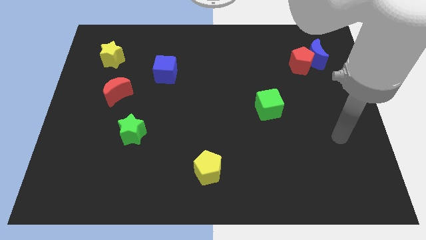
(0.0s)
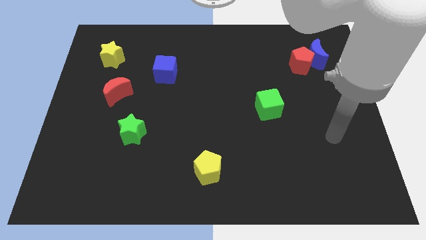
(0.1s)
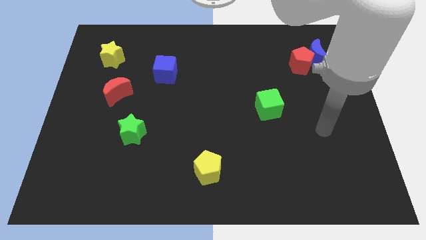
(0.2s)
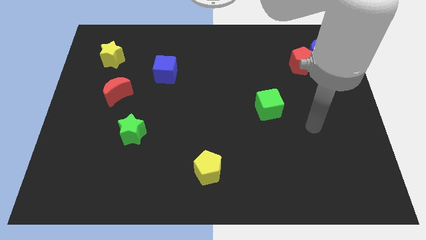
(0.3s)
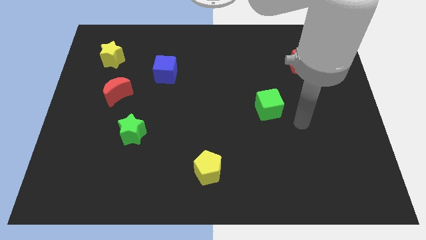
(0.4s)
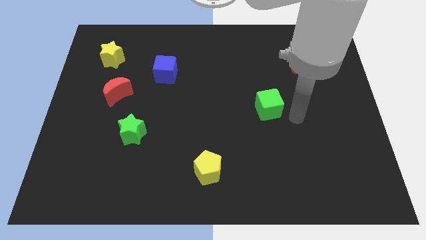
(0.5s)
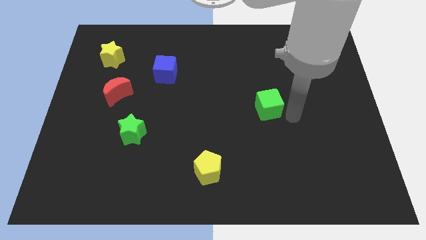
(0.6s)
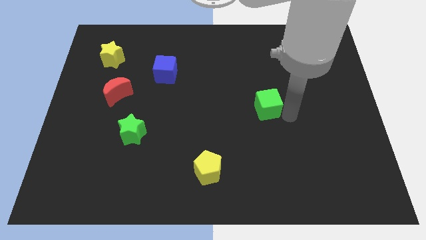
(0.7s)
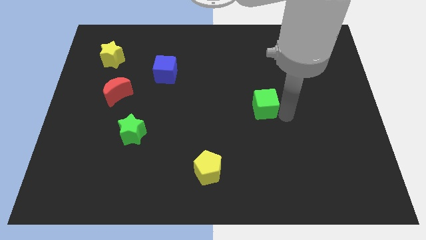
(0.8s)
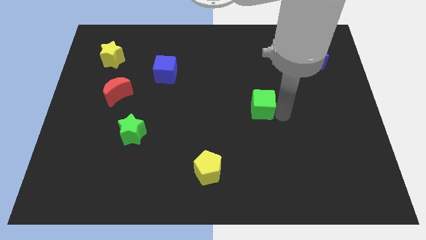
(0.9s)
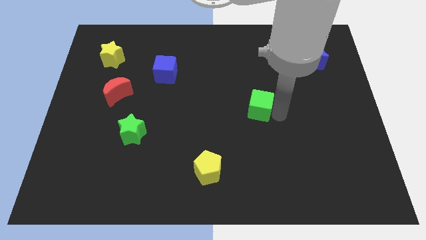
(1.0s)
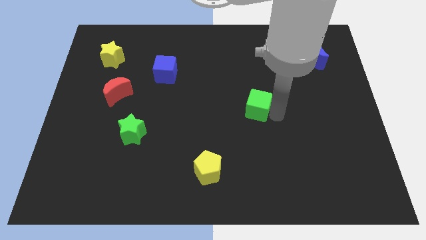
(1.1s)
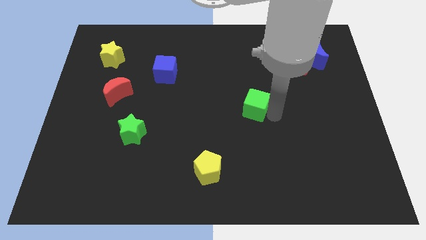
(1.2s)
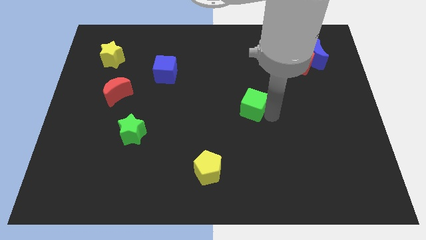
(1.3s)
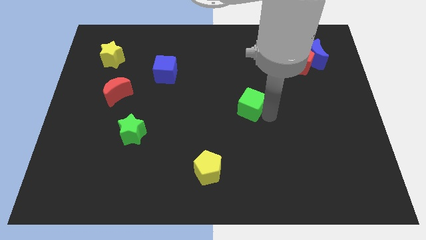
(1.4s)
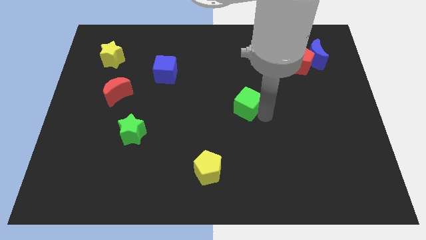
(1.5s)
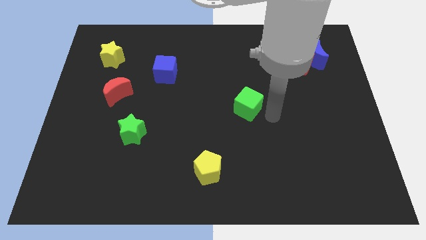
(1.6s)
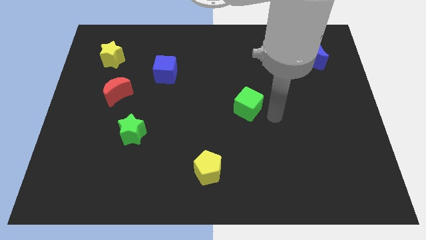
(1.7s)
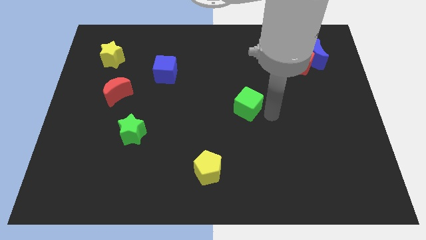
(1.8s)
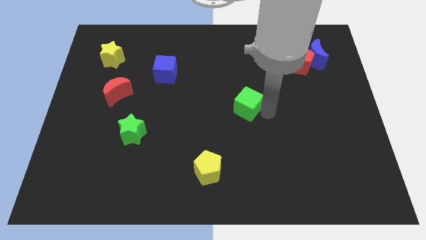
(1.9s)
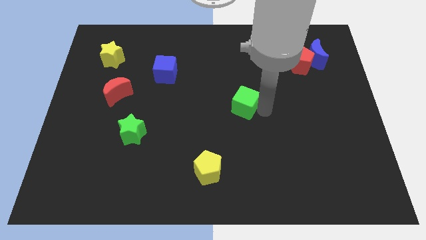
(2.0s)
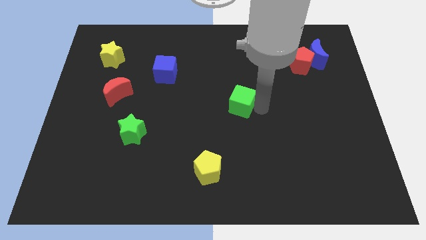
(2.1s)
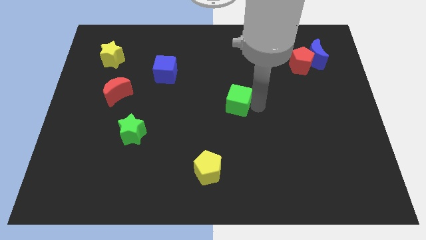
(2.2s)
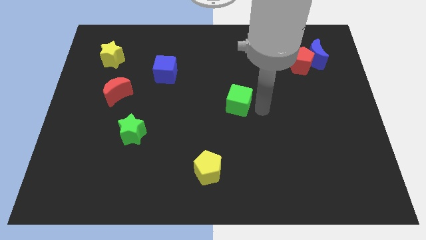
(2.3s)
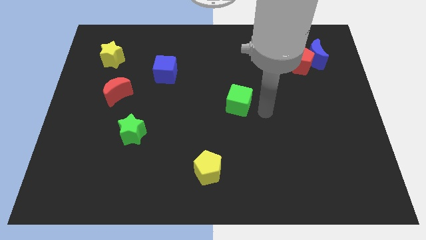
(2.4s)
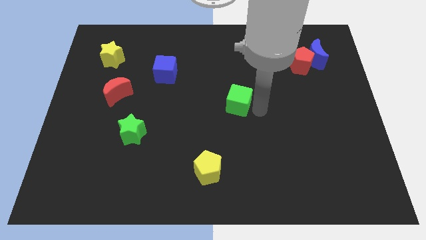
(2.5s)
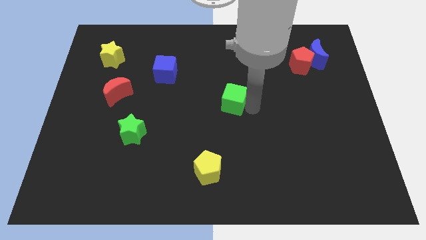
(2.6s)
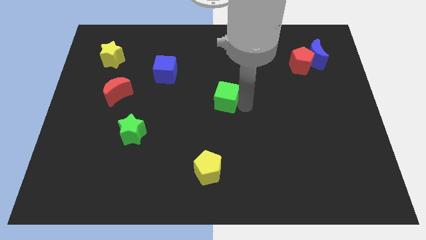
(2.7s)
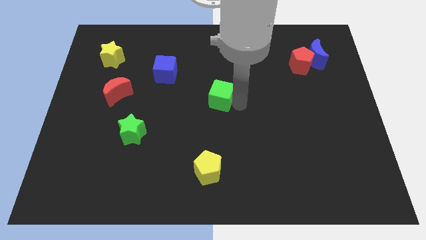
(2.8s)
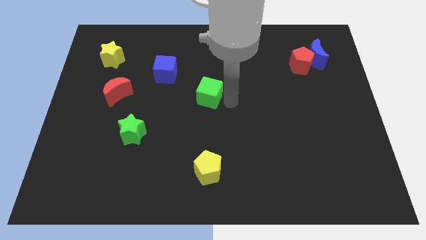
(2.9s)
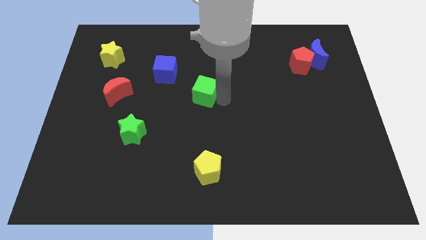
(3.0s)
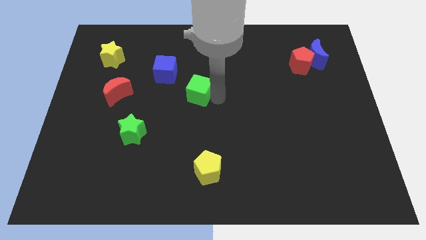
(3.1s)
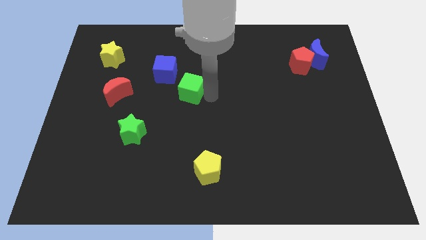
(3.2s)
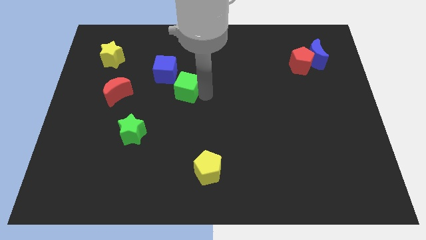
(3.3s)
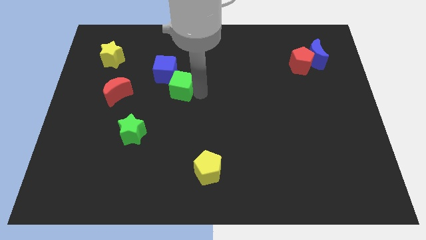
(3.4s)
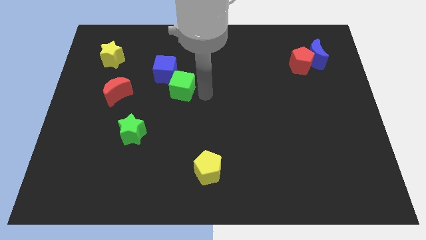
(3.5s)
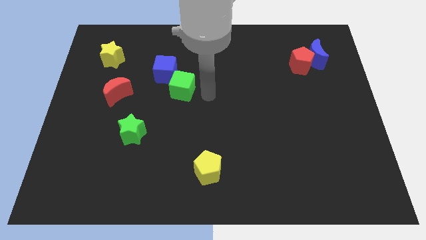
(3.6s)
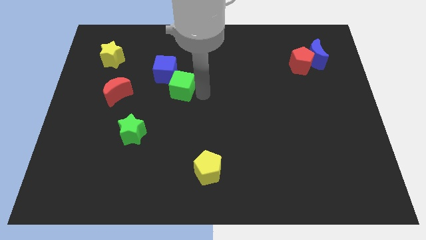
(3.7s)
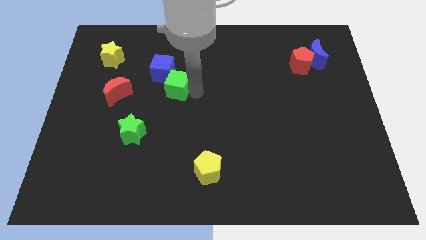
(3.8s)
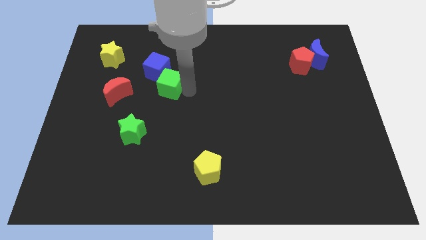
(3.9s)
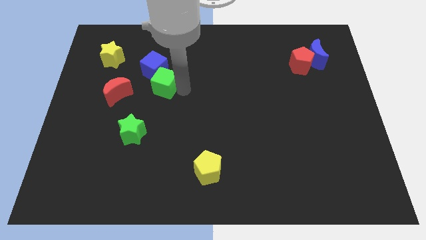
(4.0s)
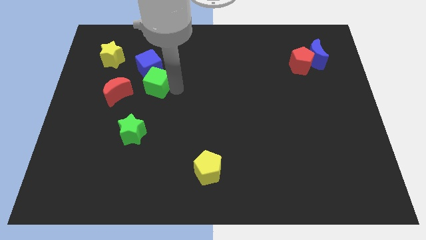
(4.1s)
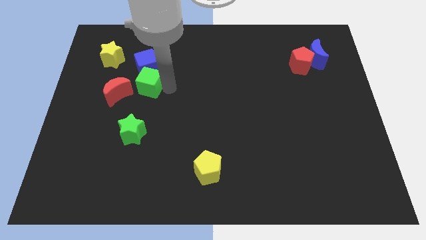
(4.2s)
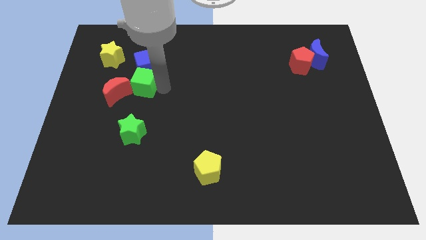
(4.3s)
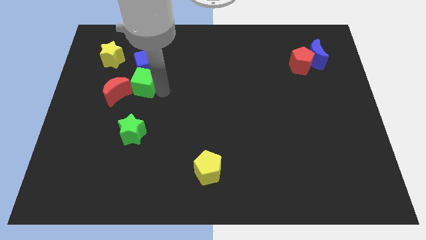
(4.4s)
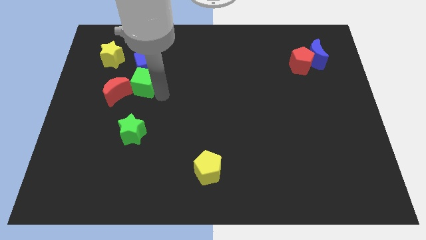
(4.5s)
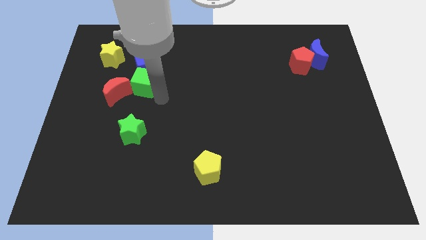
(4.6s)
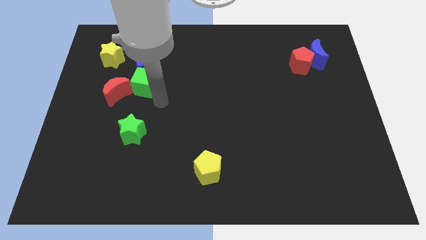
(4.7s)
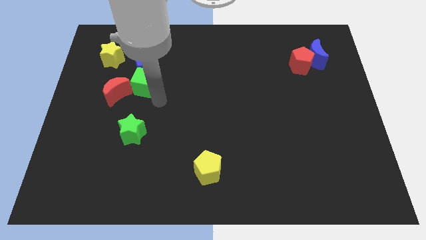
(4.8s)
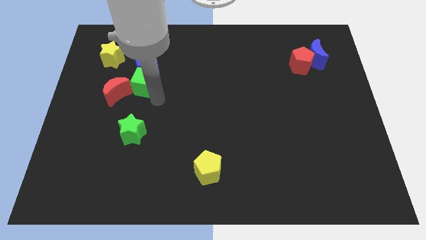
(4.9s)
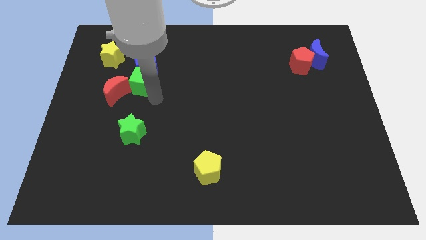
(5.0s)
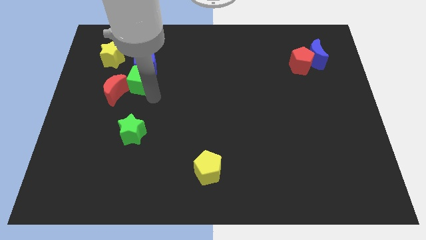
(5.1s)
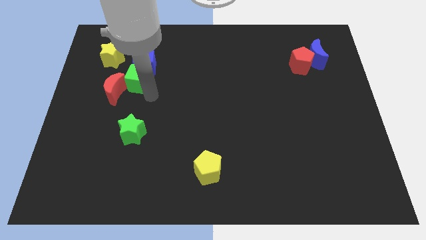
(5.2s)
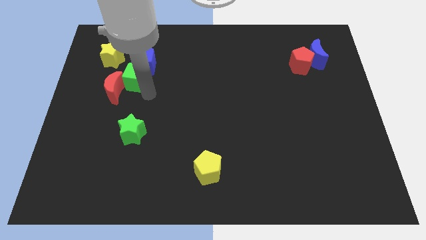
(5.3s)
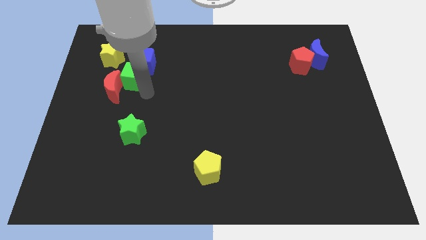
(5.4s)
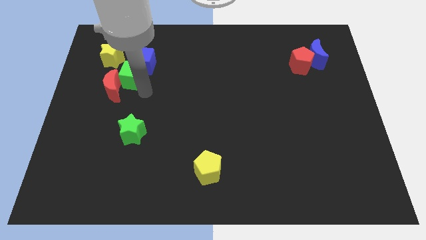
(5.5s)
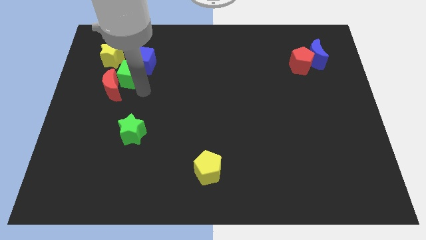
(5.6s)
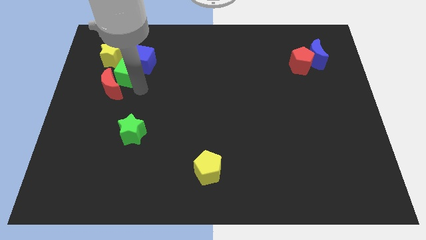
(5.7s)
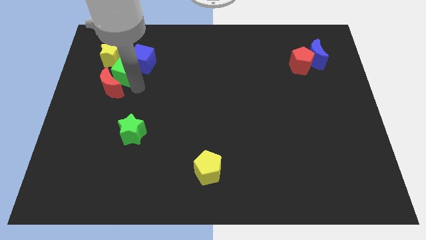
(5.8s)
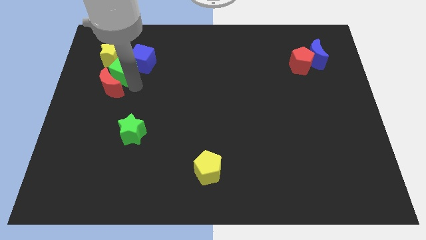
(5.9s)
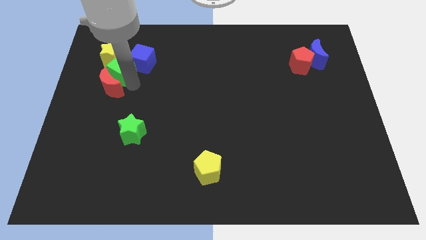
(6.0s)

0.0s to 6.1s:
slide the green cube towards the yellow star

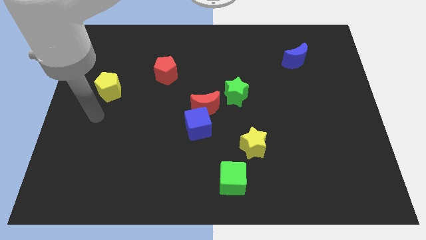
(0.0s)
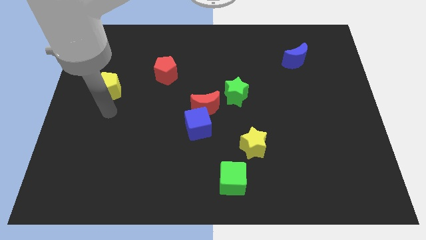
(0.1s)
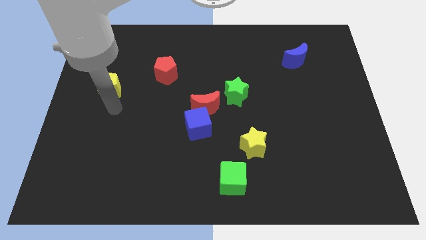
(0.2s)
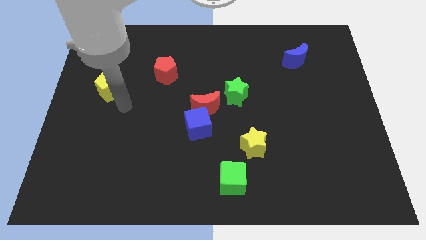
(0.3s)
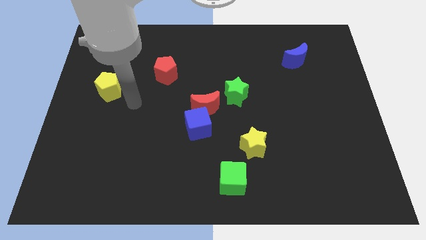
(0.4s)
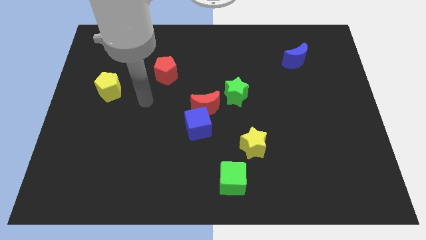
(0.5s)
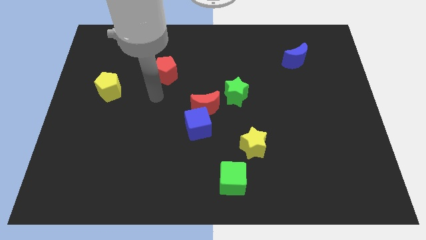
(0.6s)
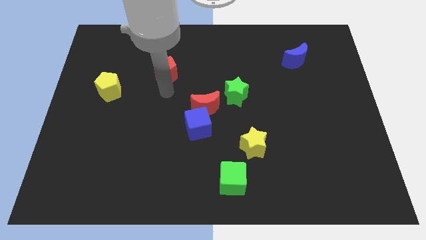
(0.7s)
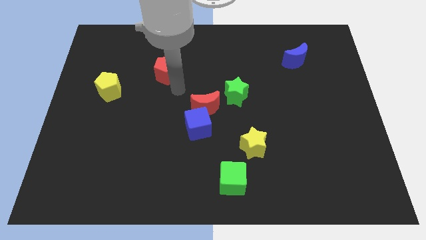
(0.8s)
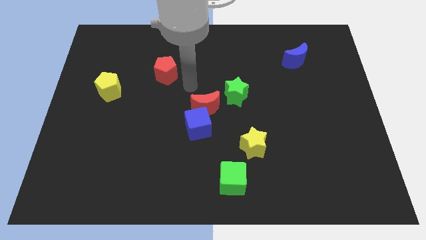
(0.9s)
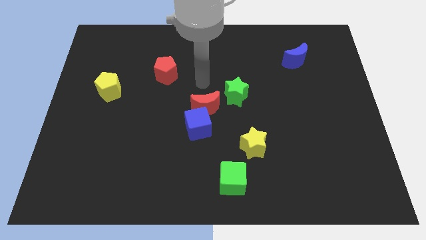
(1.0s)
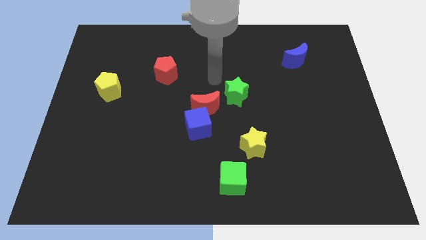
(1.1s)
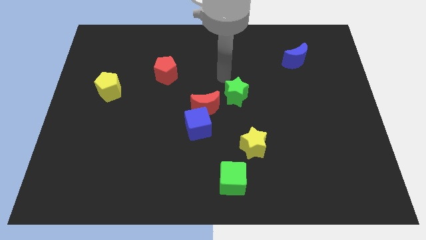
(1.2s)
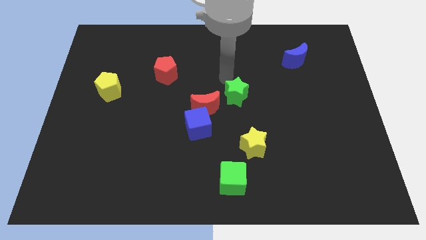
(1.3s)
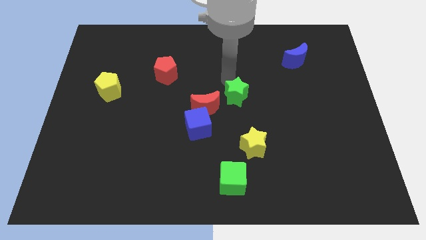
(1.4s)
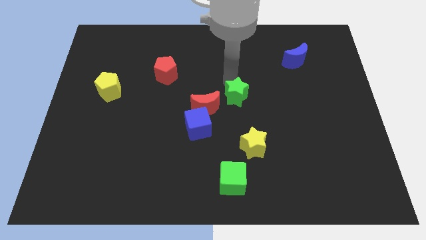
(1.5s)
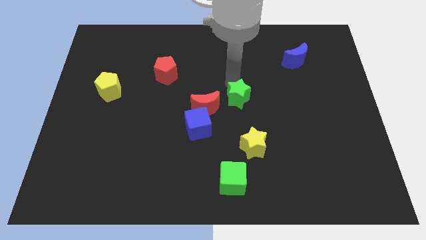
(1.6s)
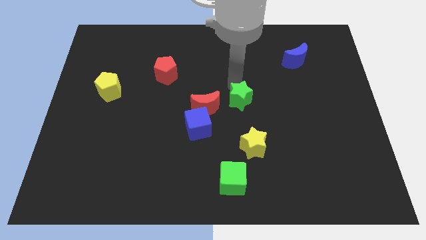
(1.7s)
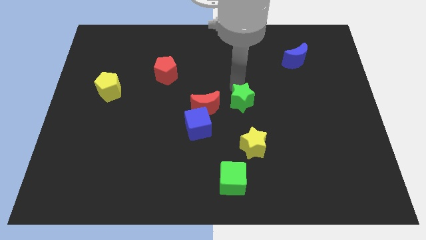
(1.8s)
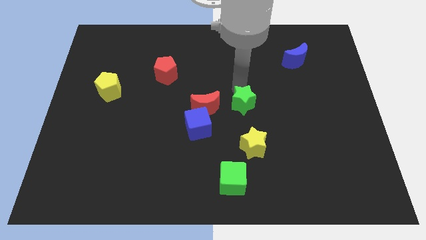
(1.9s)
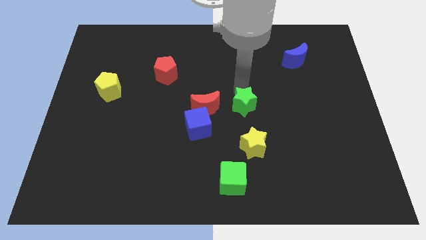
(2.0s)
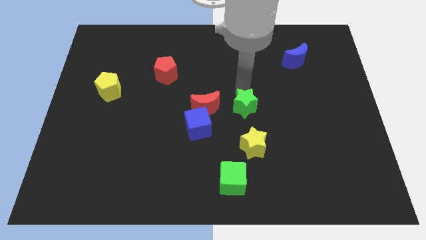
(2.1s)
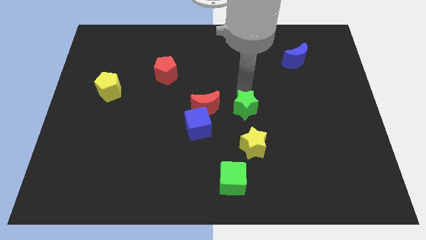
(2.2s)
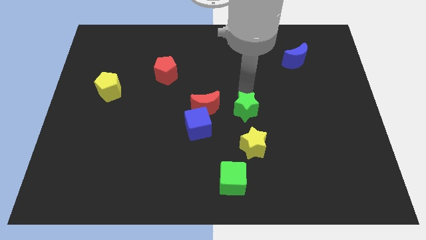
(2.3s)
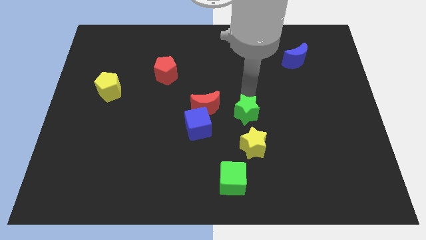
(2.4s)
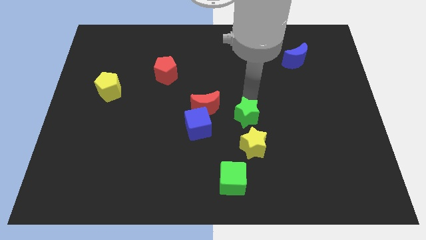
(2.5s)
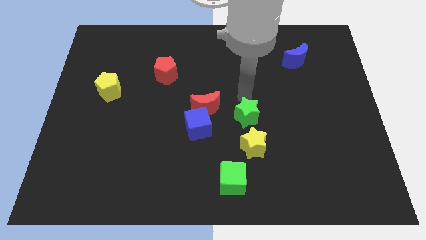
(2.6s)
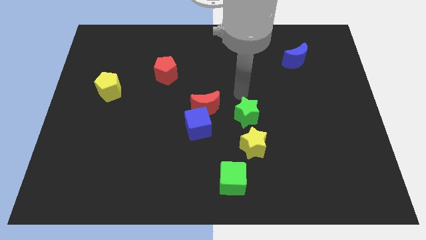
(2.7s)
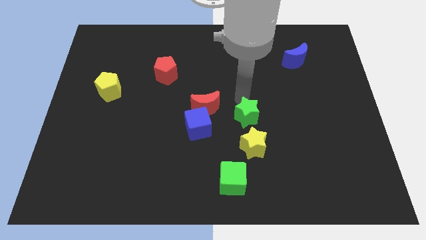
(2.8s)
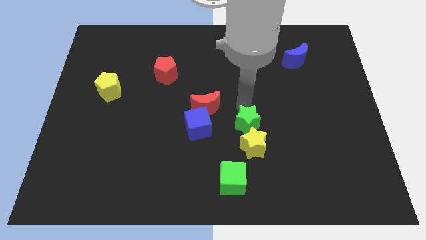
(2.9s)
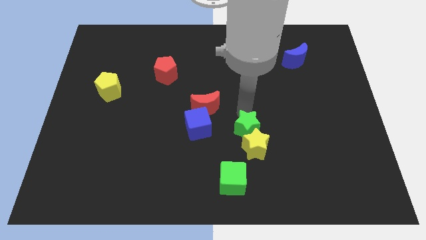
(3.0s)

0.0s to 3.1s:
put the green star to the yellow star
